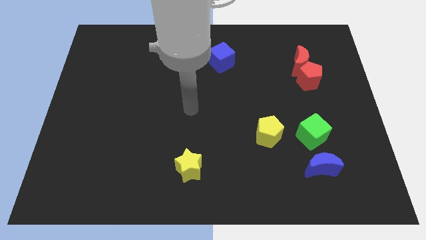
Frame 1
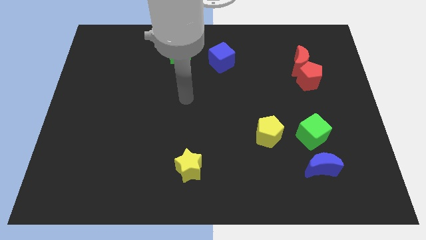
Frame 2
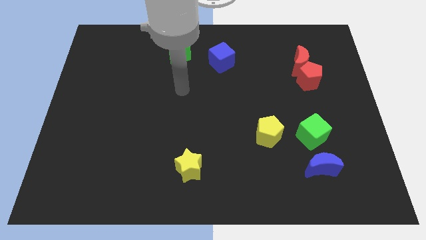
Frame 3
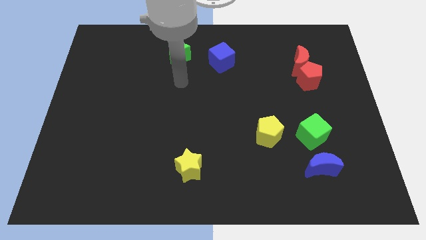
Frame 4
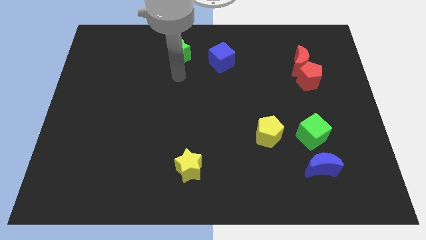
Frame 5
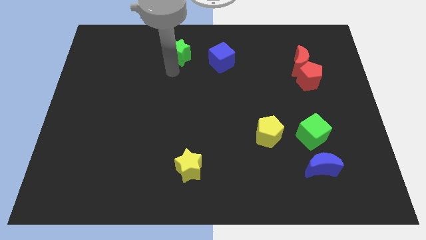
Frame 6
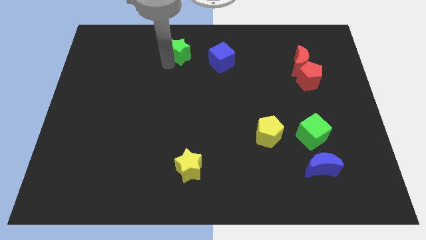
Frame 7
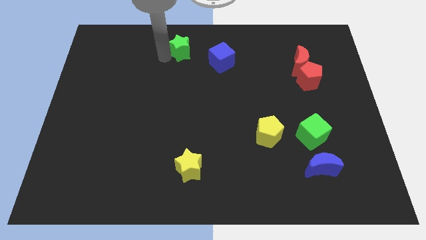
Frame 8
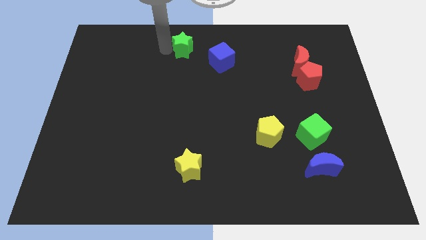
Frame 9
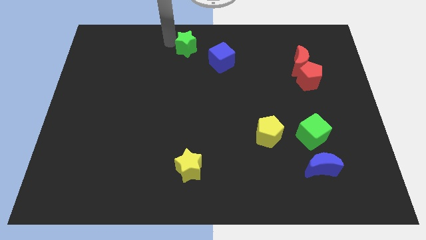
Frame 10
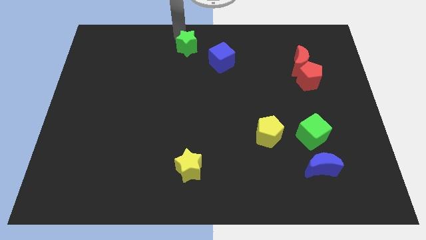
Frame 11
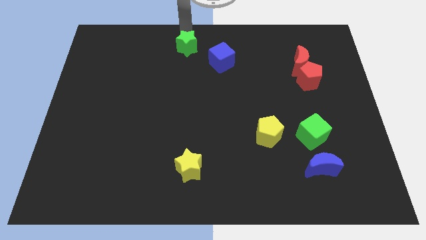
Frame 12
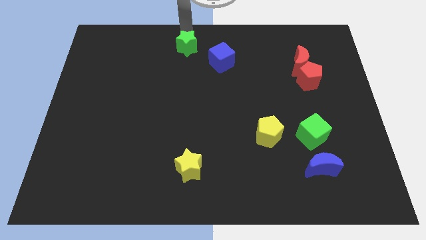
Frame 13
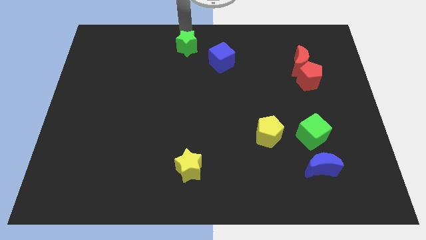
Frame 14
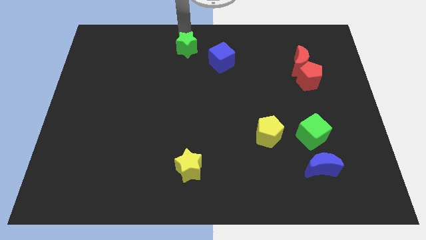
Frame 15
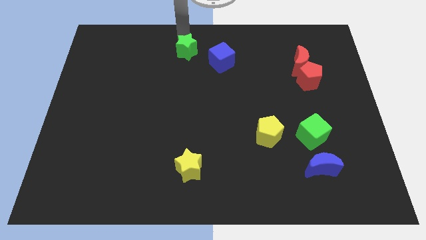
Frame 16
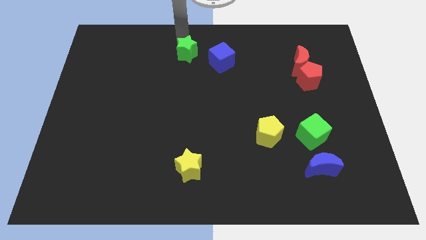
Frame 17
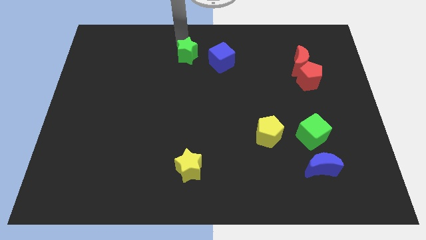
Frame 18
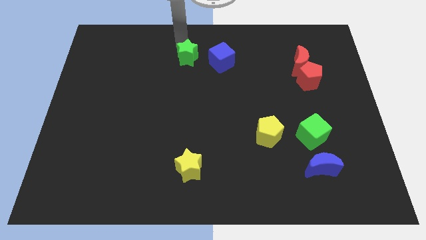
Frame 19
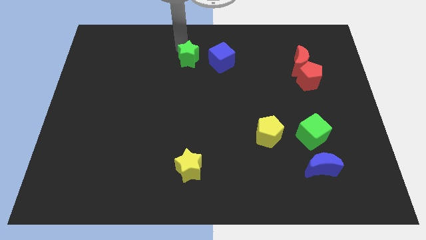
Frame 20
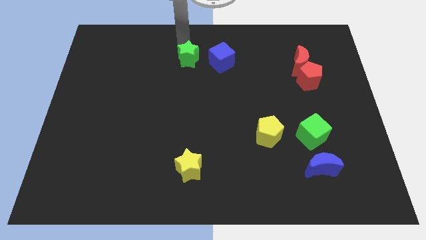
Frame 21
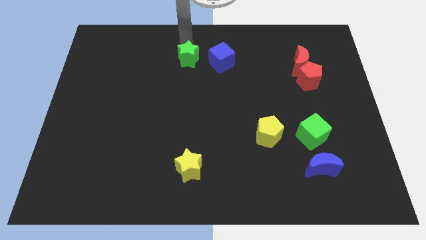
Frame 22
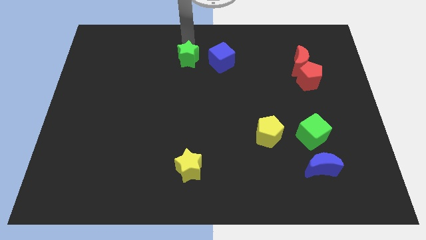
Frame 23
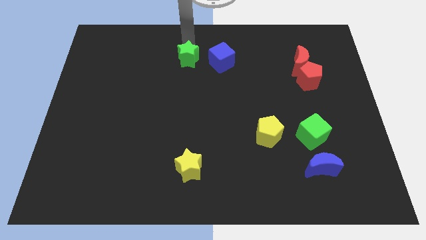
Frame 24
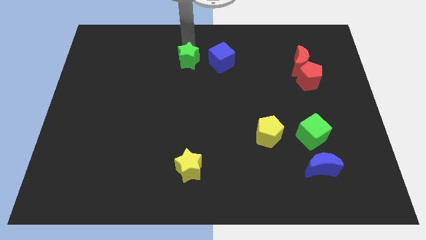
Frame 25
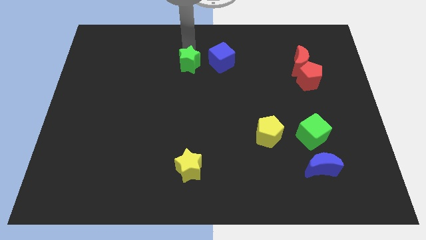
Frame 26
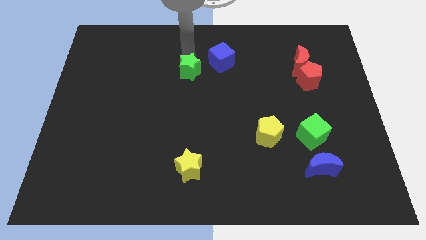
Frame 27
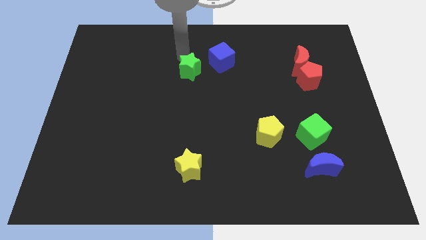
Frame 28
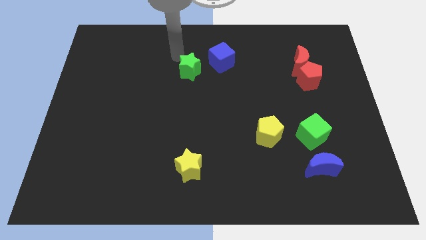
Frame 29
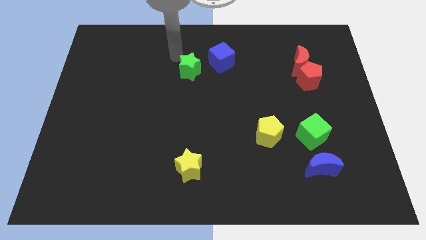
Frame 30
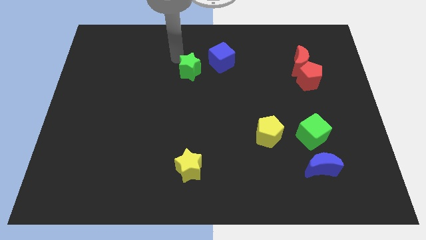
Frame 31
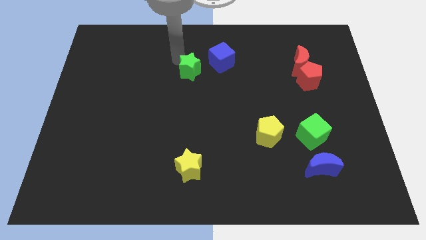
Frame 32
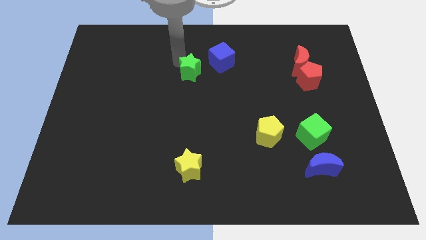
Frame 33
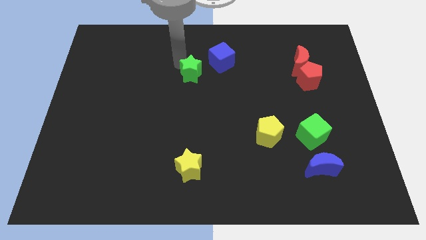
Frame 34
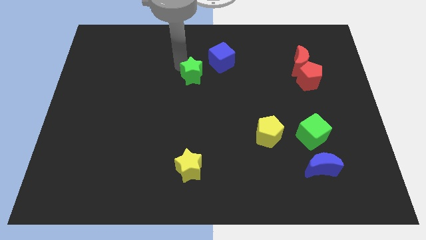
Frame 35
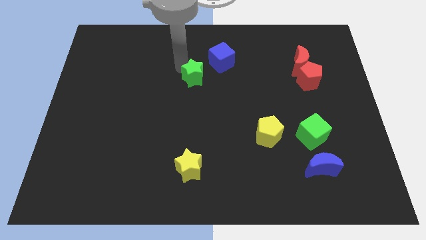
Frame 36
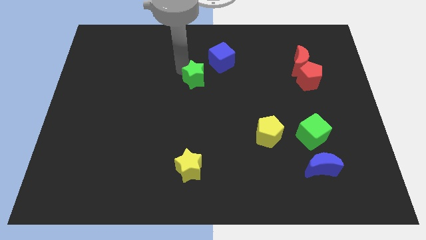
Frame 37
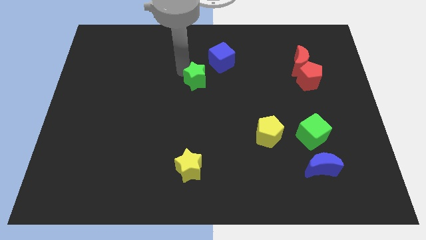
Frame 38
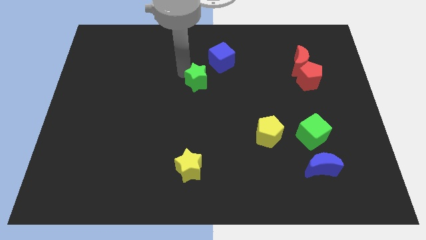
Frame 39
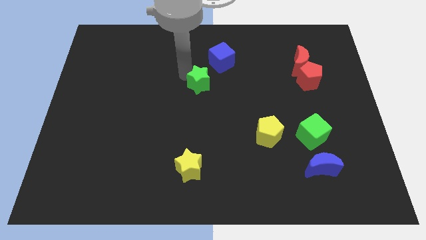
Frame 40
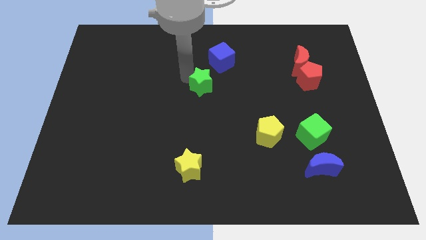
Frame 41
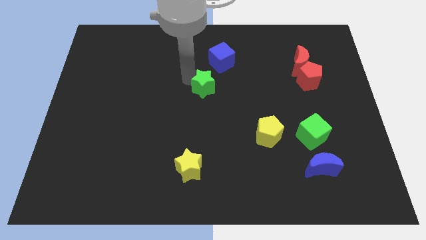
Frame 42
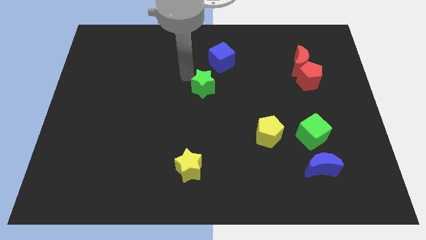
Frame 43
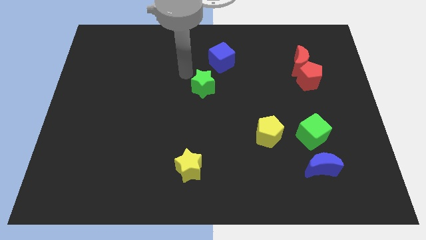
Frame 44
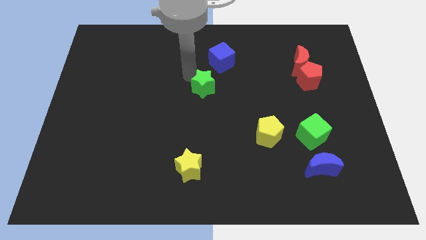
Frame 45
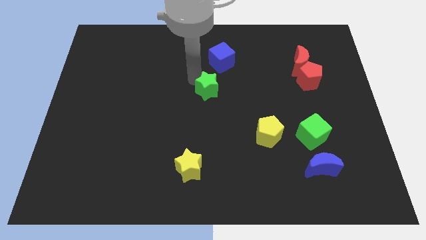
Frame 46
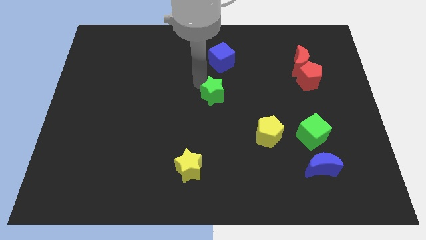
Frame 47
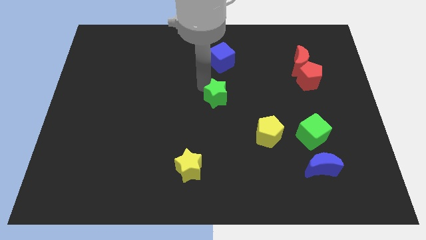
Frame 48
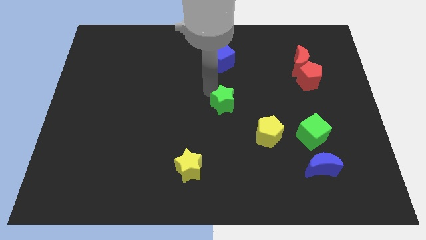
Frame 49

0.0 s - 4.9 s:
push the green star to the top left of the yellow pentagon

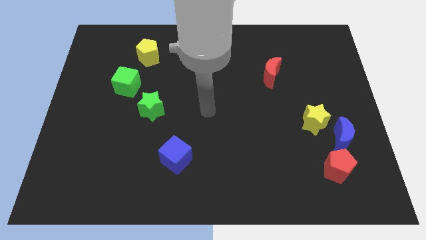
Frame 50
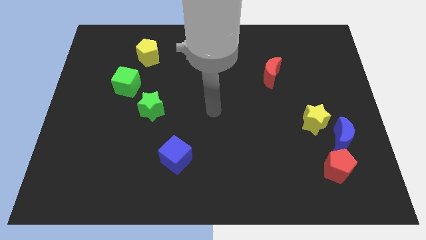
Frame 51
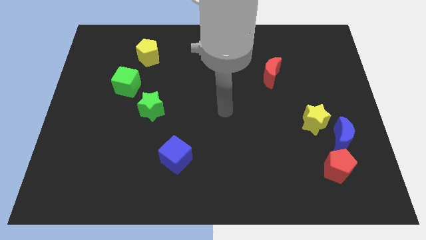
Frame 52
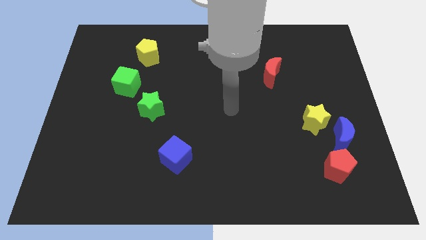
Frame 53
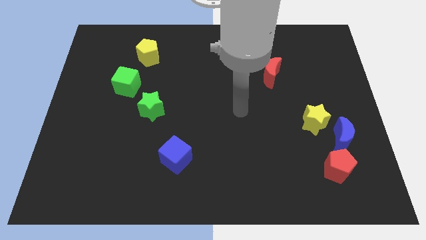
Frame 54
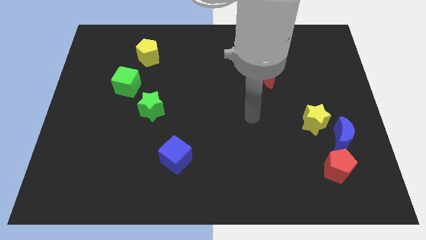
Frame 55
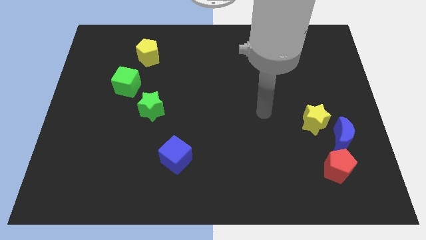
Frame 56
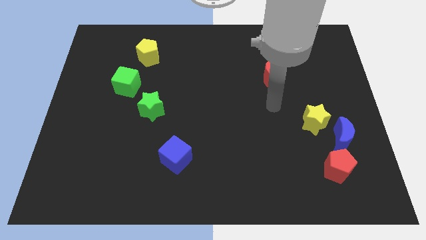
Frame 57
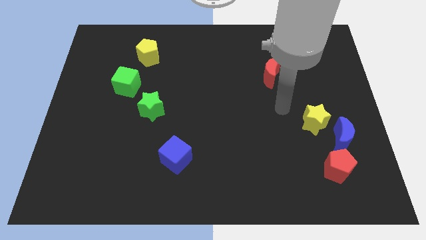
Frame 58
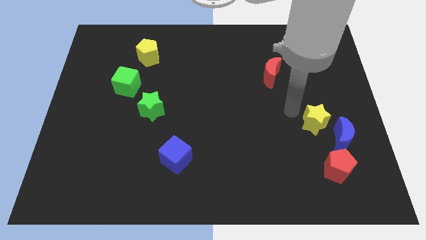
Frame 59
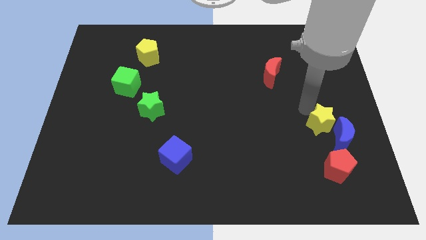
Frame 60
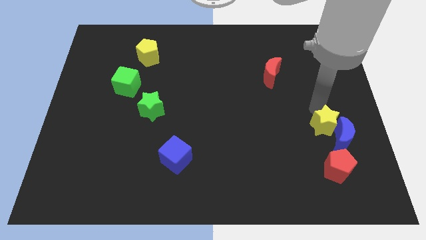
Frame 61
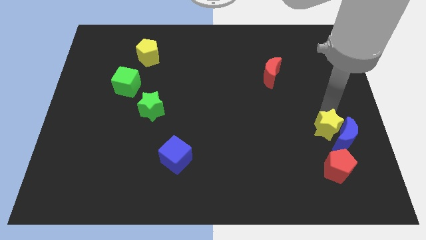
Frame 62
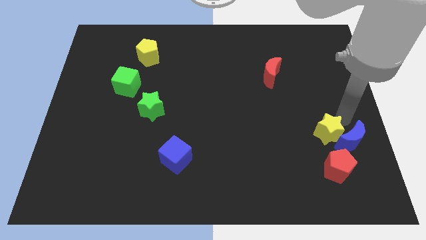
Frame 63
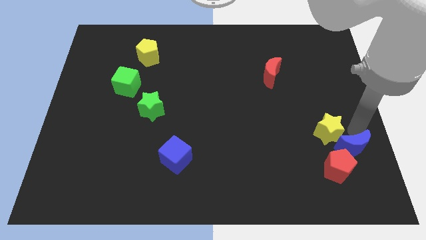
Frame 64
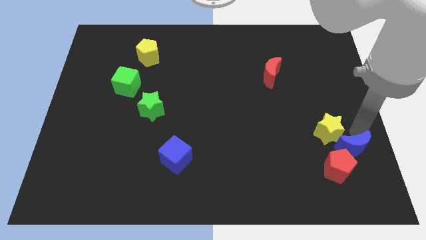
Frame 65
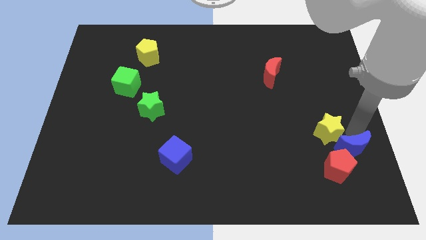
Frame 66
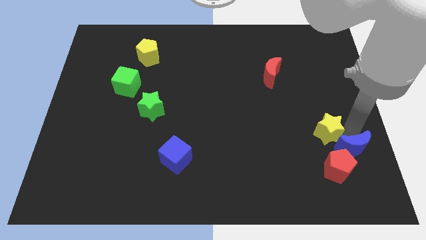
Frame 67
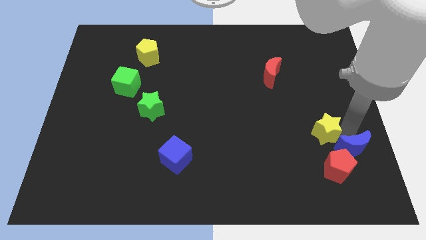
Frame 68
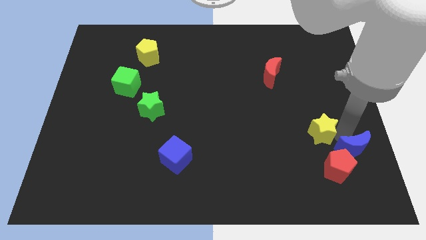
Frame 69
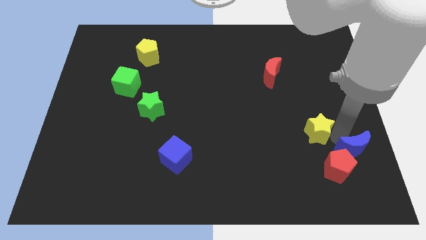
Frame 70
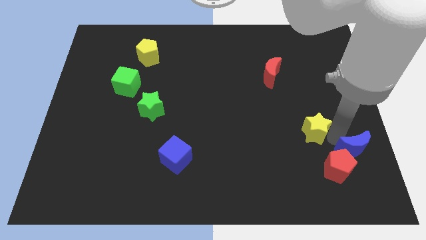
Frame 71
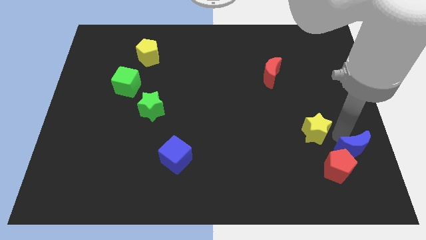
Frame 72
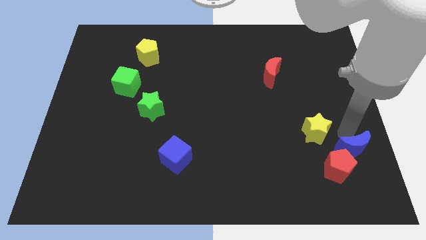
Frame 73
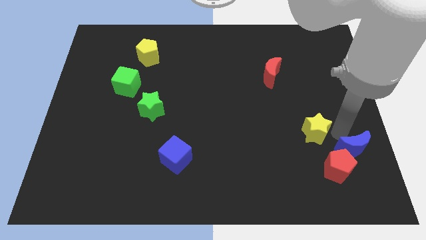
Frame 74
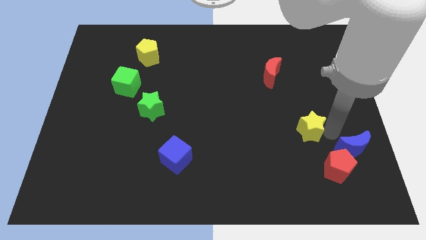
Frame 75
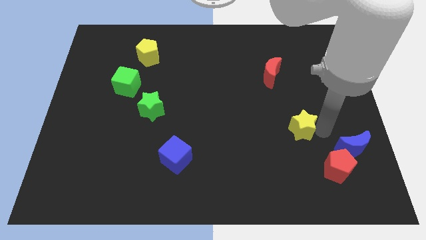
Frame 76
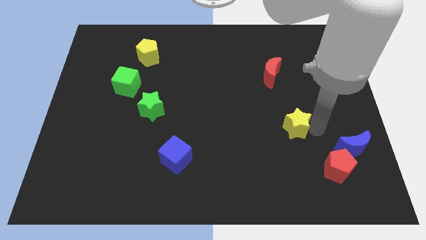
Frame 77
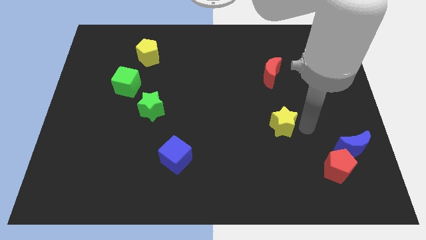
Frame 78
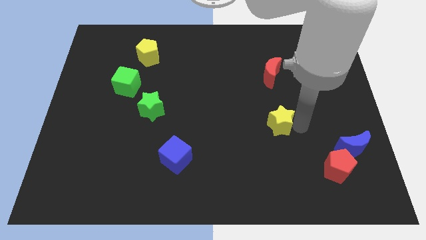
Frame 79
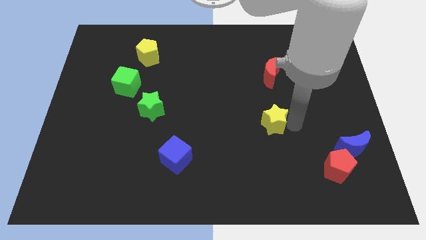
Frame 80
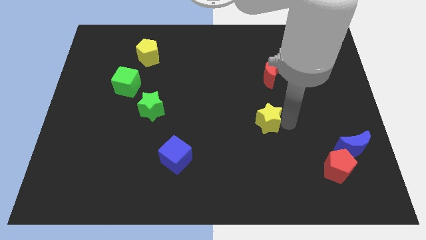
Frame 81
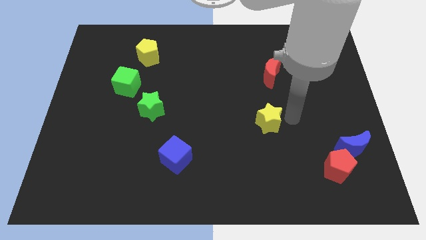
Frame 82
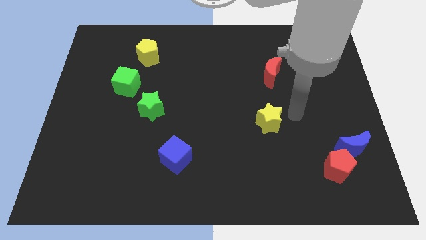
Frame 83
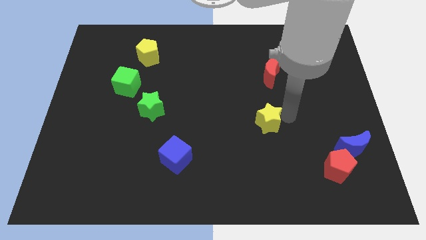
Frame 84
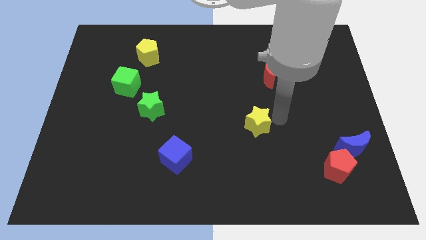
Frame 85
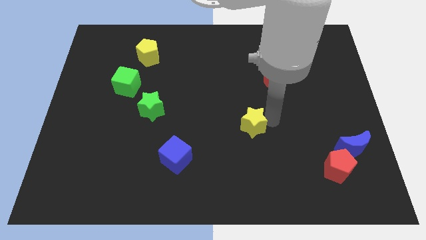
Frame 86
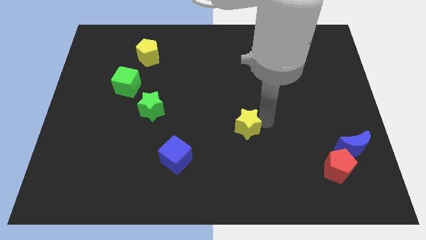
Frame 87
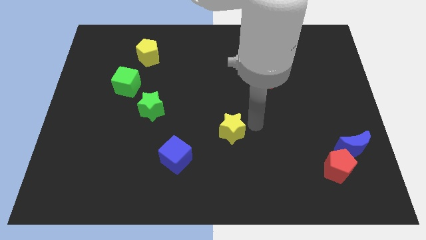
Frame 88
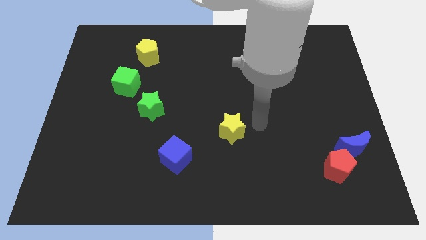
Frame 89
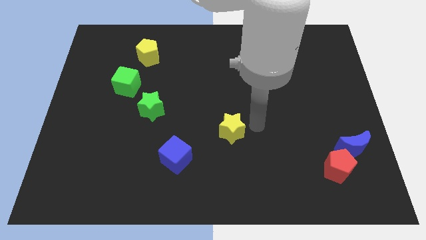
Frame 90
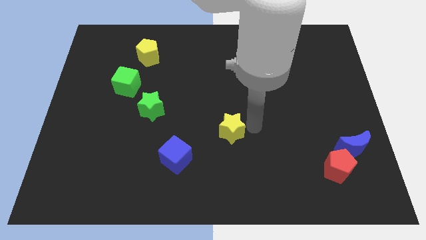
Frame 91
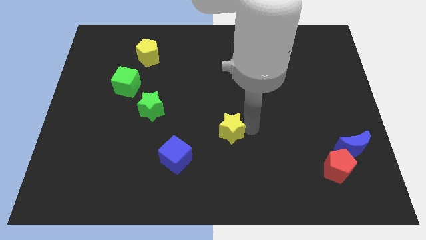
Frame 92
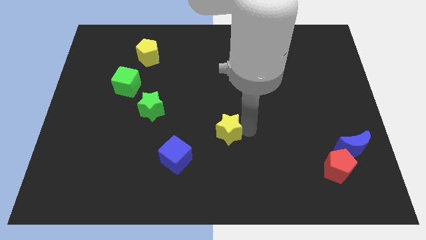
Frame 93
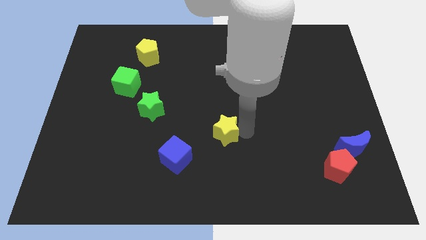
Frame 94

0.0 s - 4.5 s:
slide the yellow star to the top right of the blue cube
